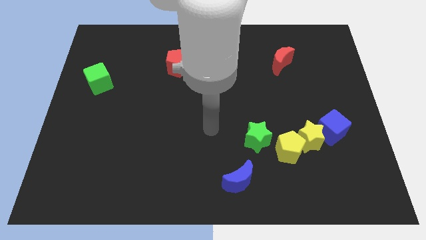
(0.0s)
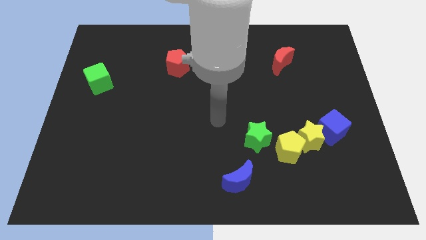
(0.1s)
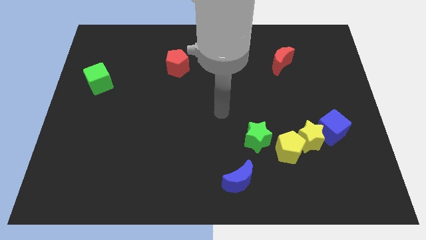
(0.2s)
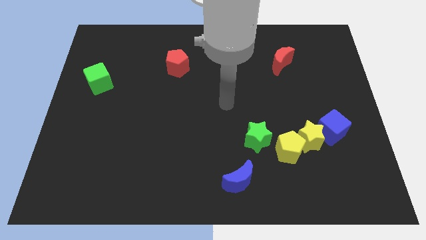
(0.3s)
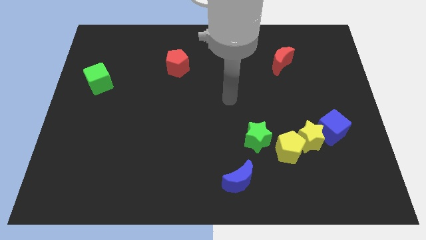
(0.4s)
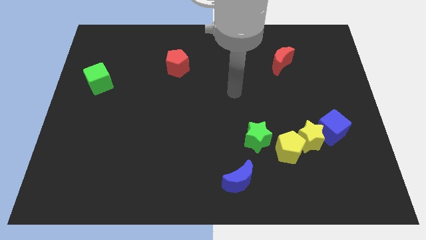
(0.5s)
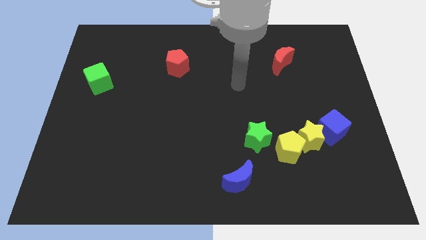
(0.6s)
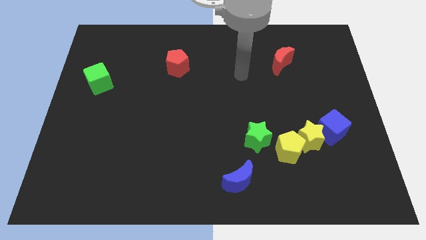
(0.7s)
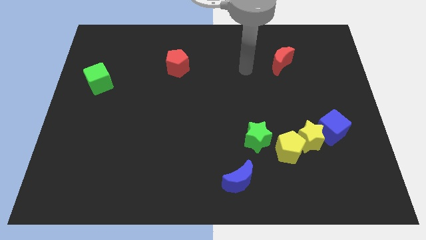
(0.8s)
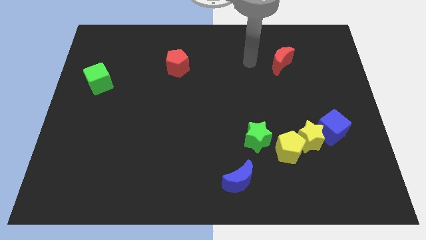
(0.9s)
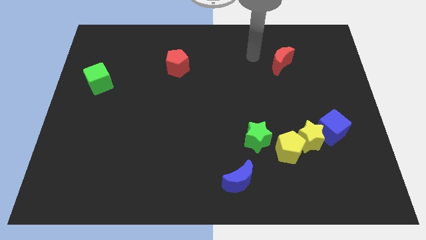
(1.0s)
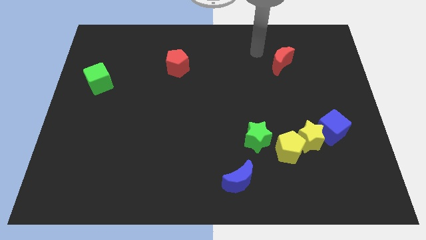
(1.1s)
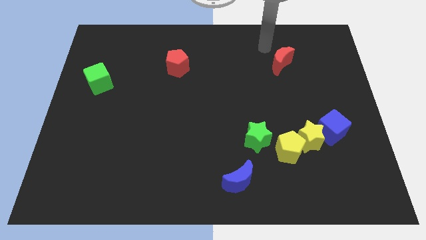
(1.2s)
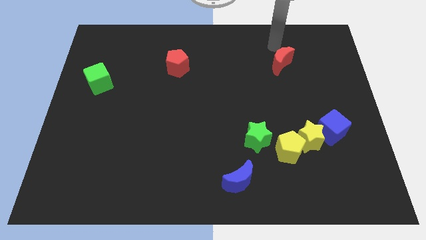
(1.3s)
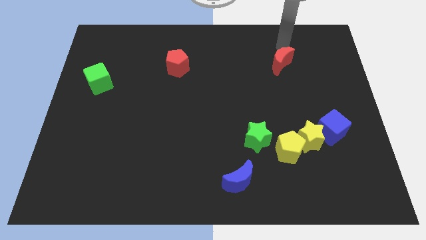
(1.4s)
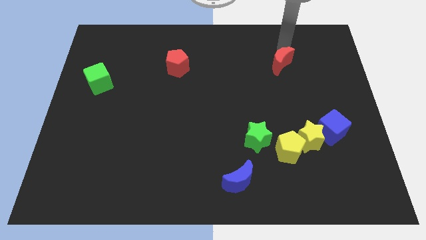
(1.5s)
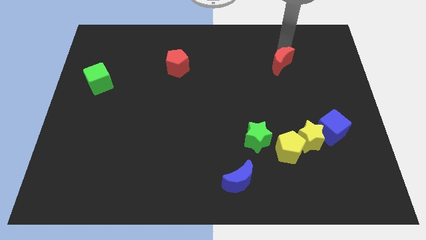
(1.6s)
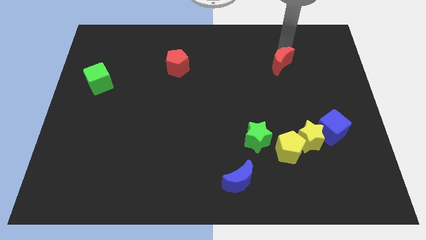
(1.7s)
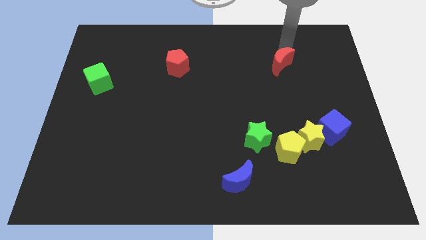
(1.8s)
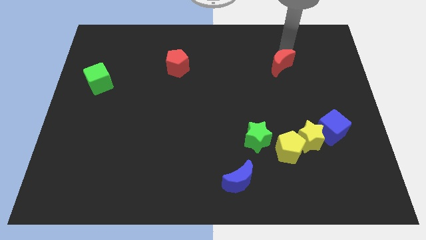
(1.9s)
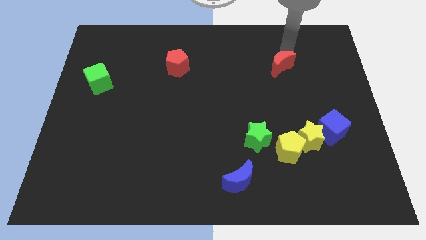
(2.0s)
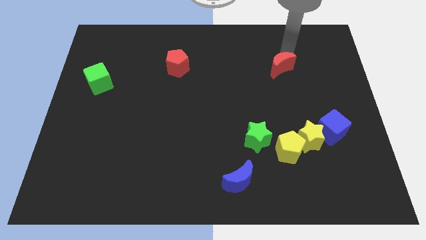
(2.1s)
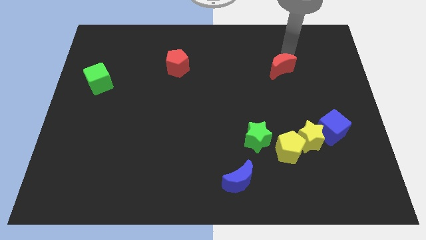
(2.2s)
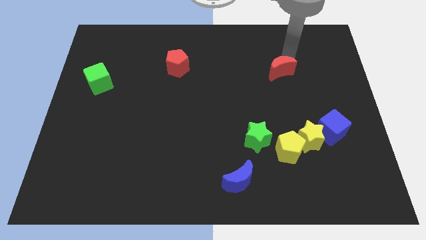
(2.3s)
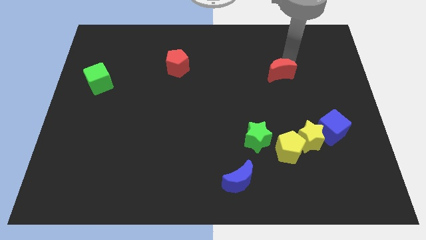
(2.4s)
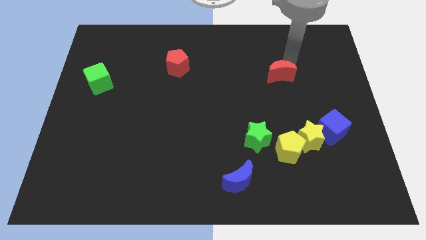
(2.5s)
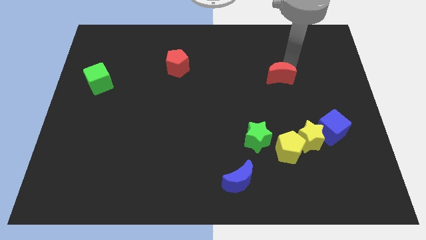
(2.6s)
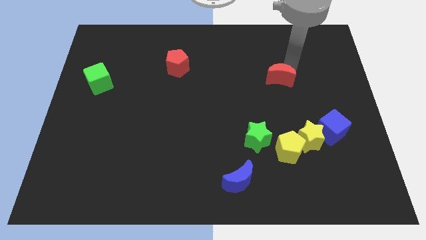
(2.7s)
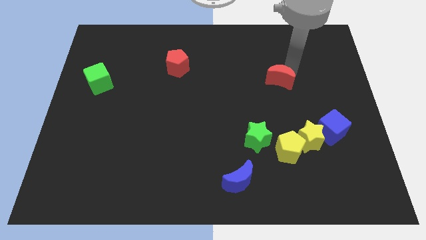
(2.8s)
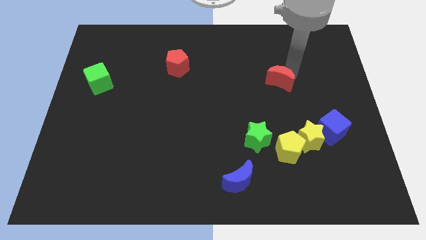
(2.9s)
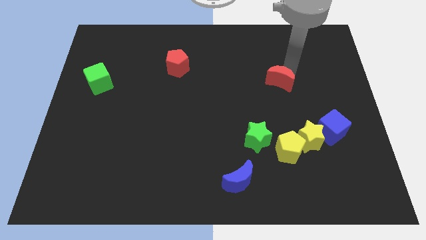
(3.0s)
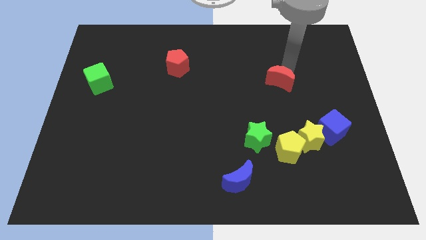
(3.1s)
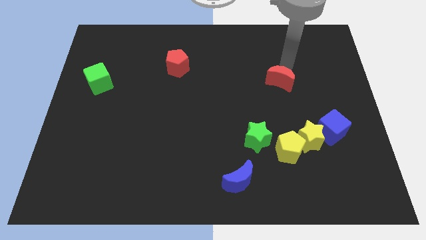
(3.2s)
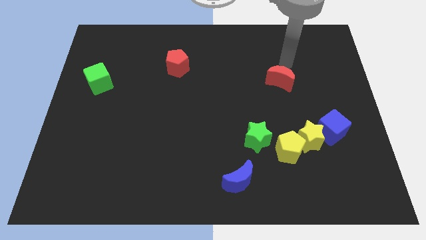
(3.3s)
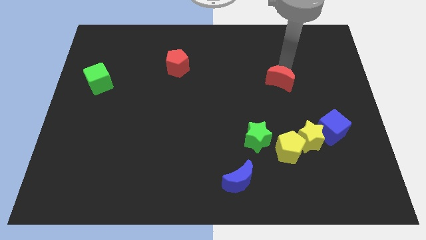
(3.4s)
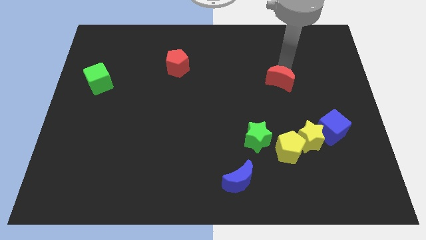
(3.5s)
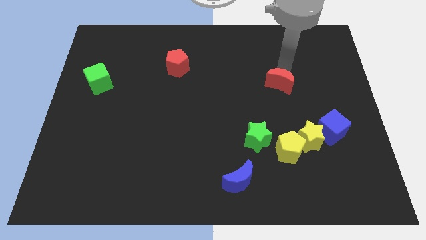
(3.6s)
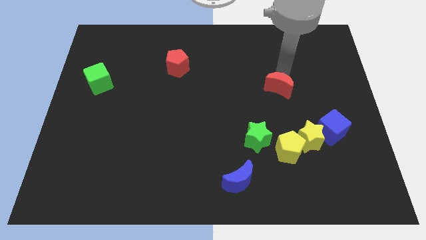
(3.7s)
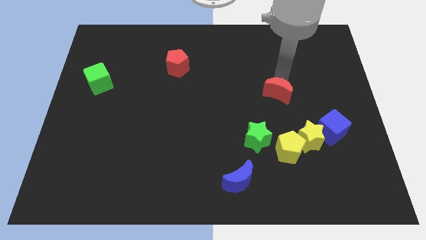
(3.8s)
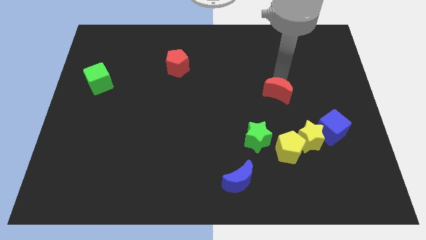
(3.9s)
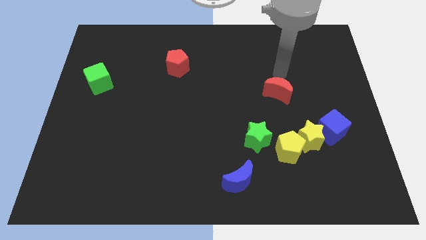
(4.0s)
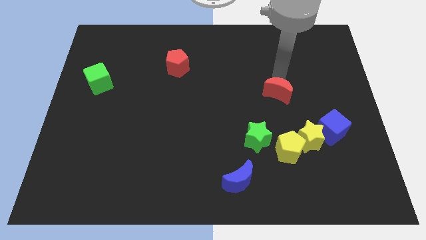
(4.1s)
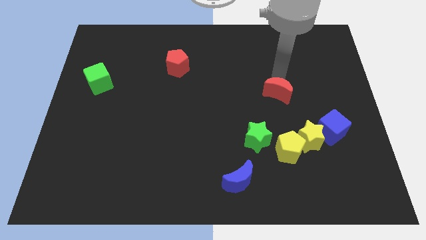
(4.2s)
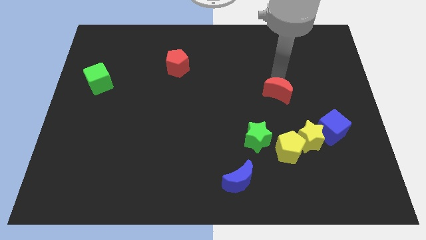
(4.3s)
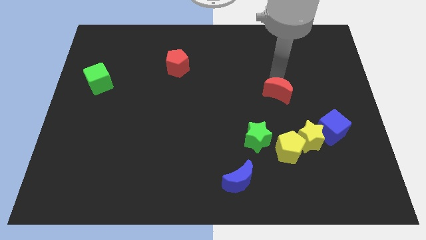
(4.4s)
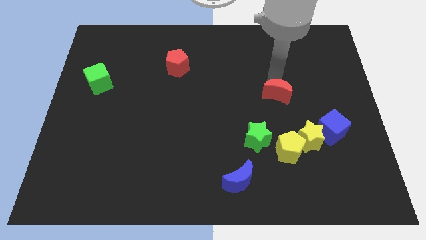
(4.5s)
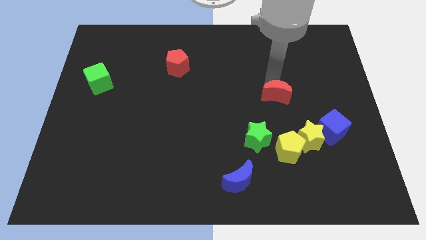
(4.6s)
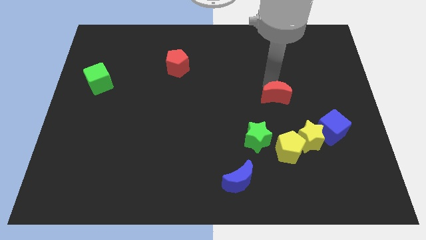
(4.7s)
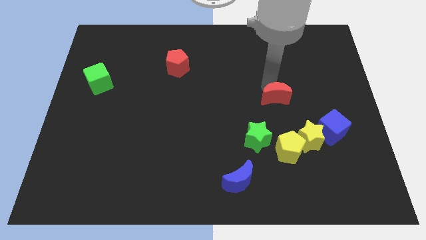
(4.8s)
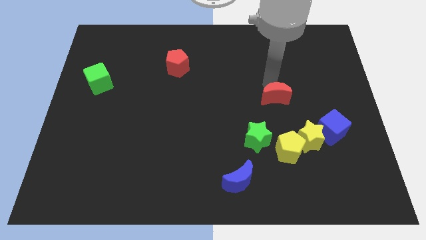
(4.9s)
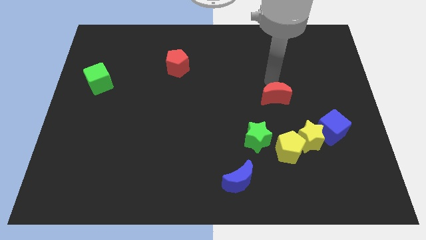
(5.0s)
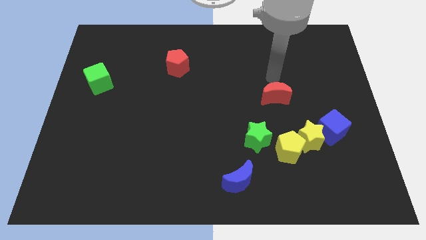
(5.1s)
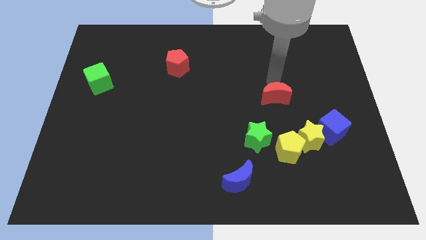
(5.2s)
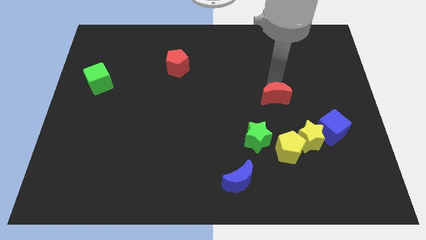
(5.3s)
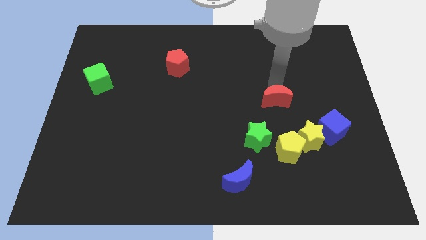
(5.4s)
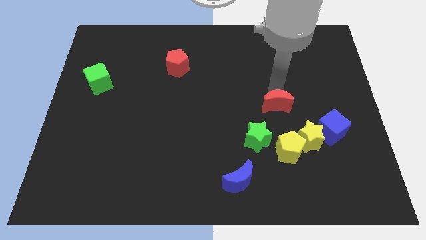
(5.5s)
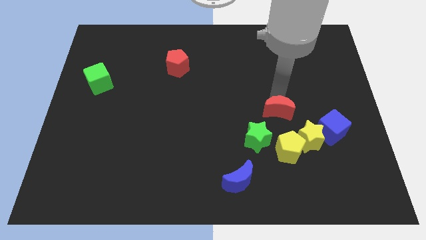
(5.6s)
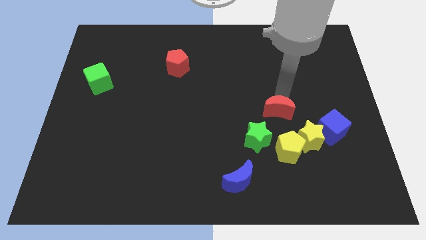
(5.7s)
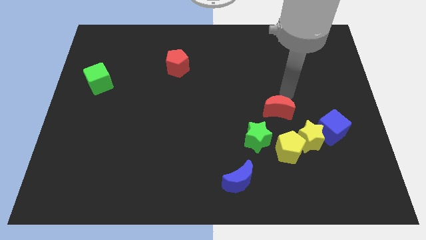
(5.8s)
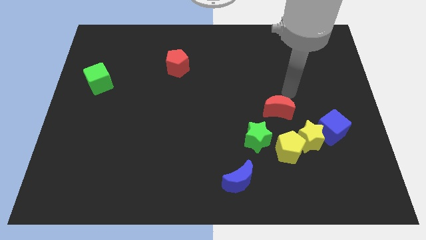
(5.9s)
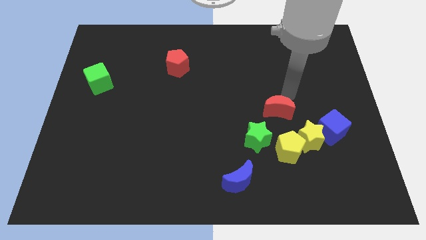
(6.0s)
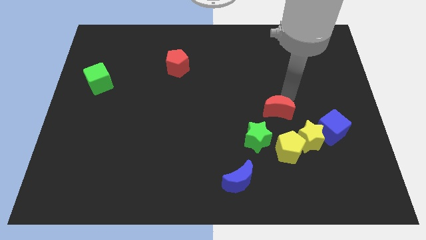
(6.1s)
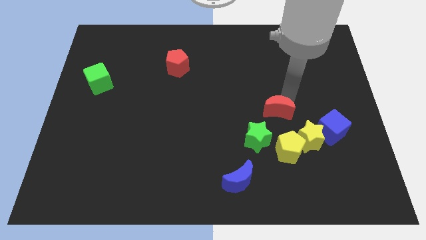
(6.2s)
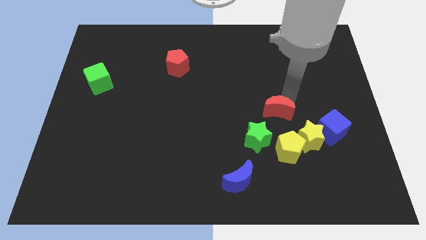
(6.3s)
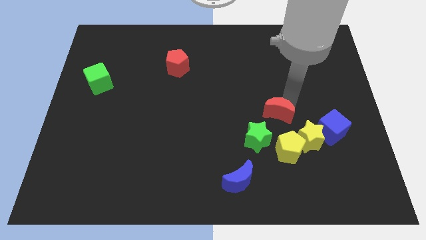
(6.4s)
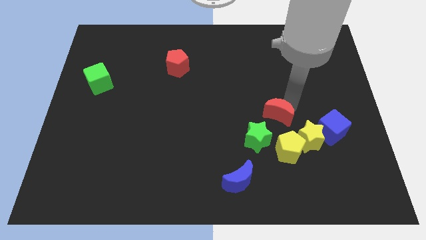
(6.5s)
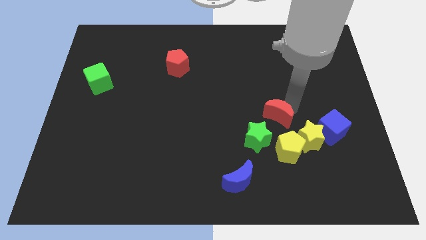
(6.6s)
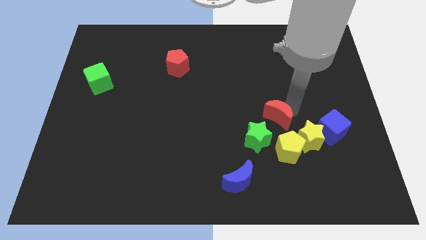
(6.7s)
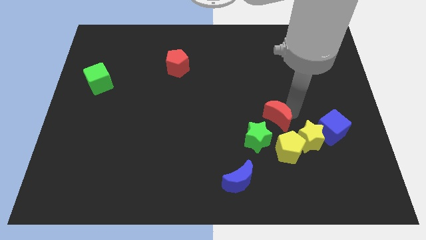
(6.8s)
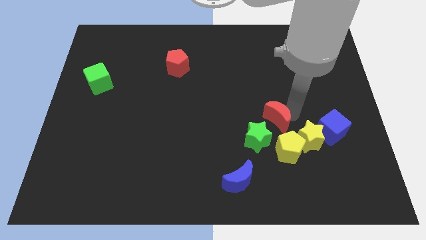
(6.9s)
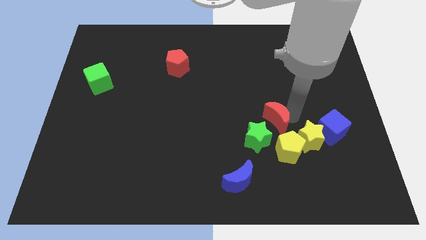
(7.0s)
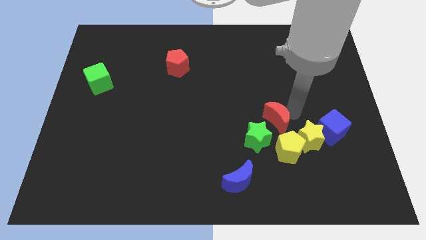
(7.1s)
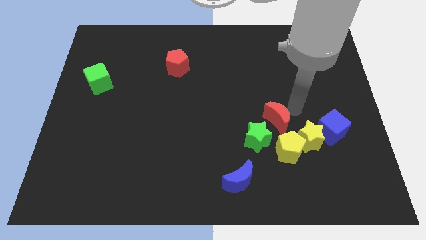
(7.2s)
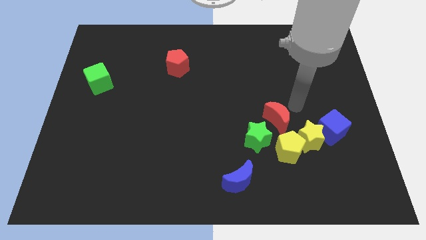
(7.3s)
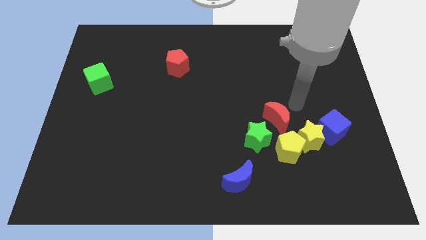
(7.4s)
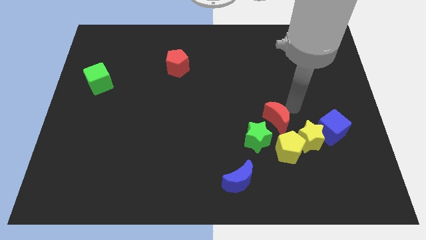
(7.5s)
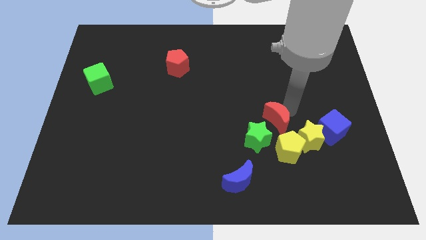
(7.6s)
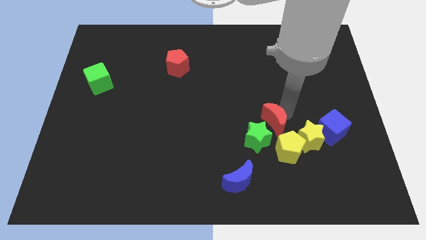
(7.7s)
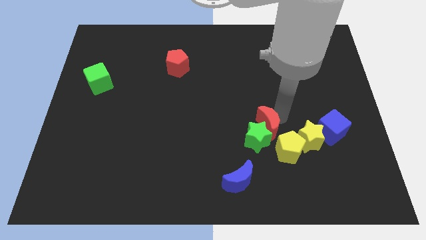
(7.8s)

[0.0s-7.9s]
put the red moon towards the green star
